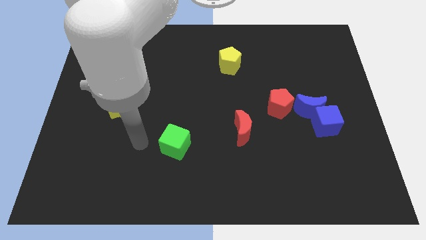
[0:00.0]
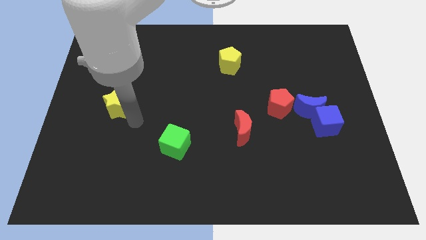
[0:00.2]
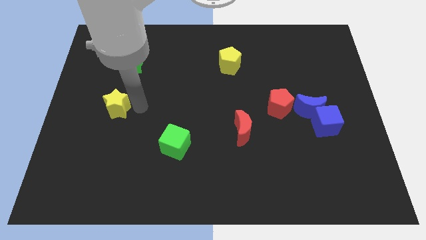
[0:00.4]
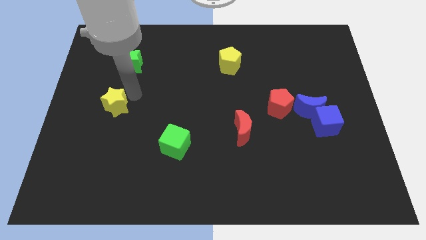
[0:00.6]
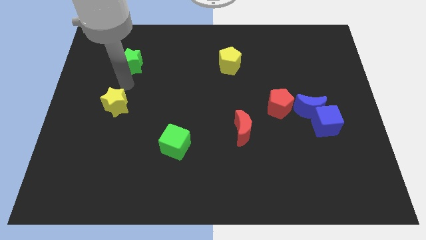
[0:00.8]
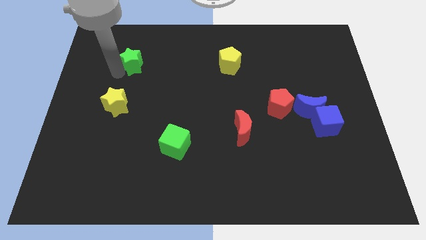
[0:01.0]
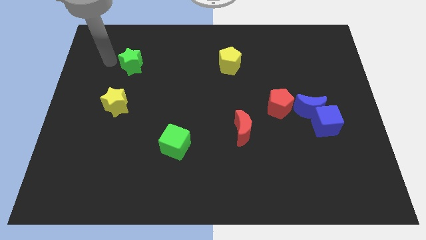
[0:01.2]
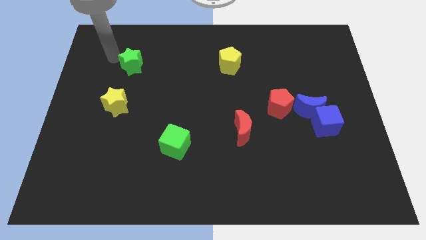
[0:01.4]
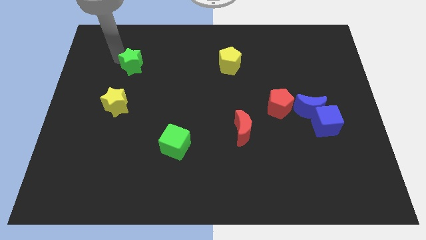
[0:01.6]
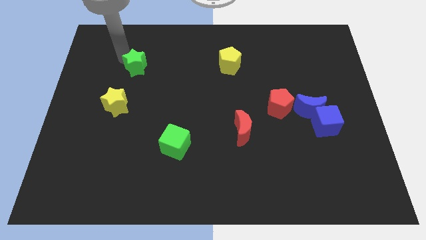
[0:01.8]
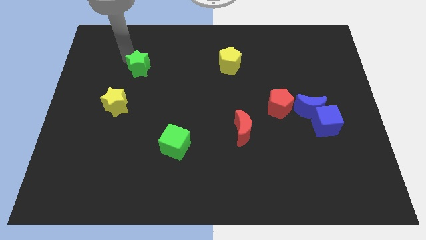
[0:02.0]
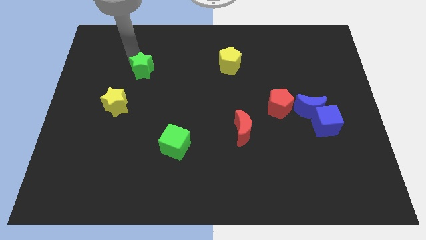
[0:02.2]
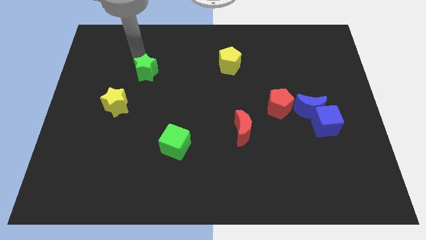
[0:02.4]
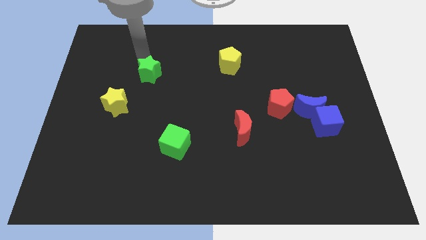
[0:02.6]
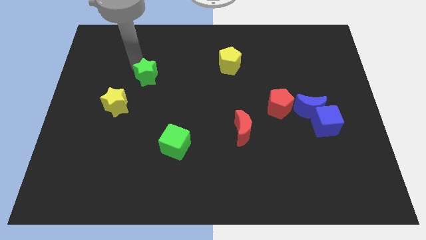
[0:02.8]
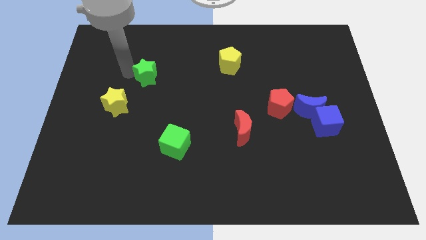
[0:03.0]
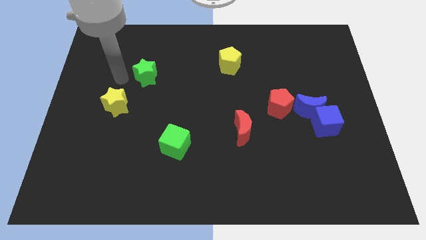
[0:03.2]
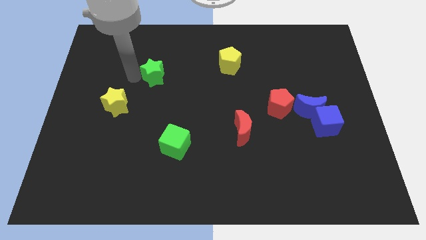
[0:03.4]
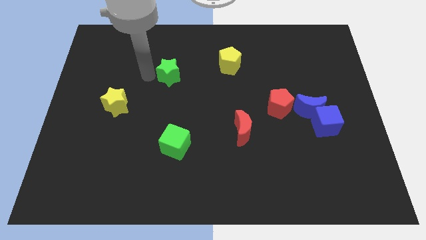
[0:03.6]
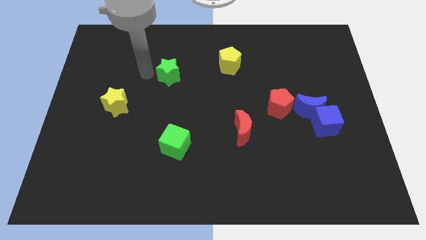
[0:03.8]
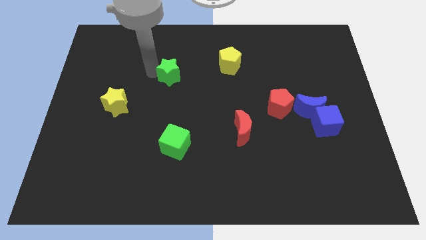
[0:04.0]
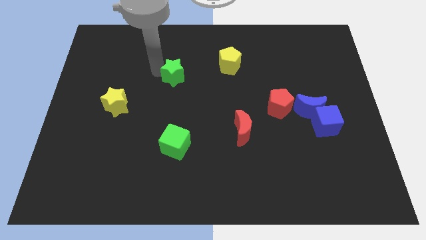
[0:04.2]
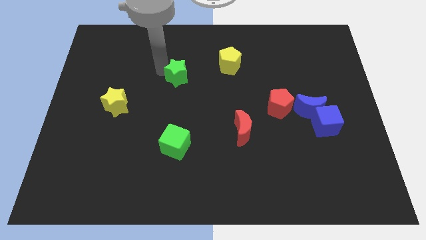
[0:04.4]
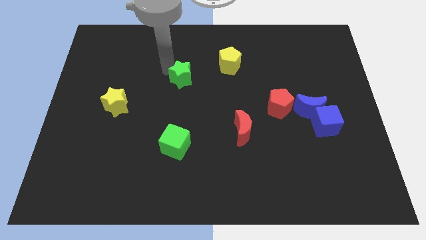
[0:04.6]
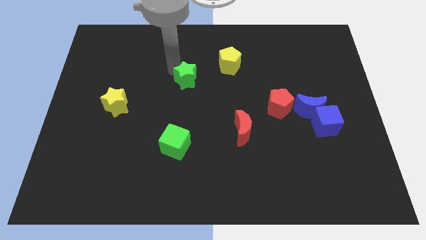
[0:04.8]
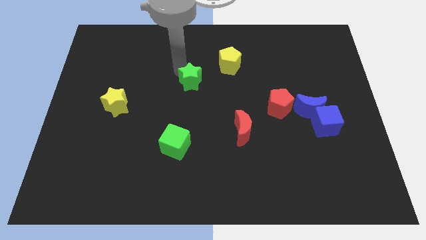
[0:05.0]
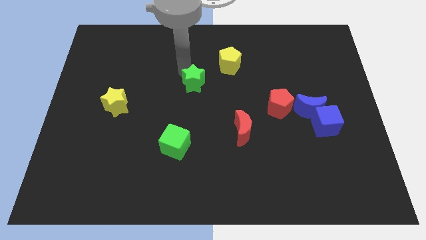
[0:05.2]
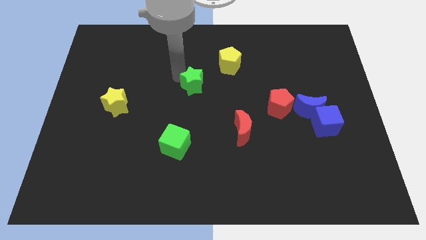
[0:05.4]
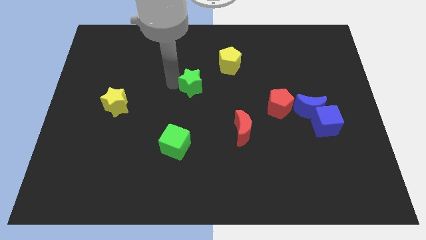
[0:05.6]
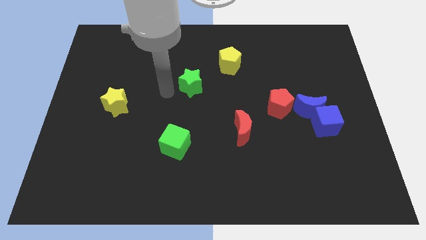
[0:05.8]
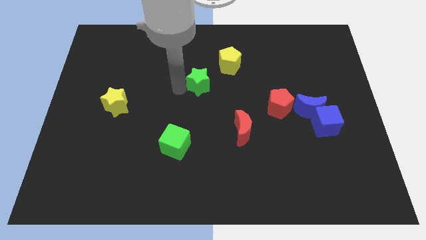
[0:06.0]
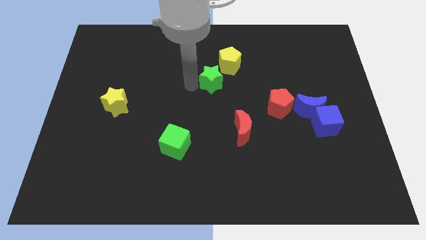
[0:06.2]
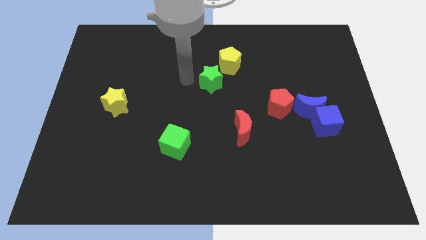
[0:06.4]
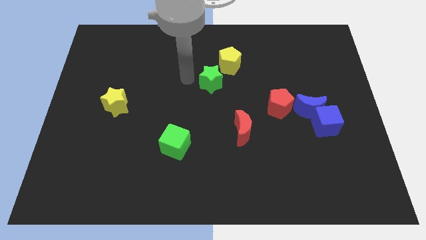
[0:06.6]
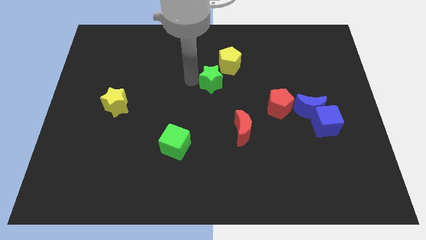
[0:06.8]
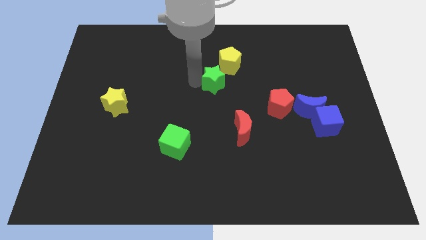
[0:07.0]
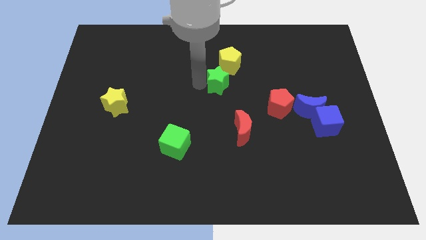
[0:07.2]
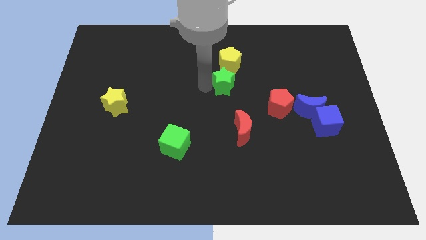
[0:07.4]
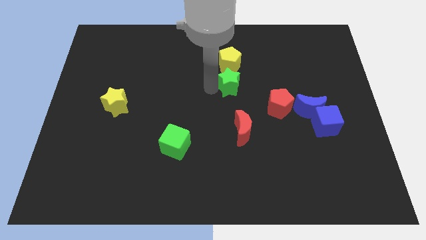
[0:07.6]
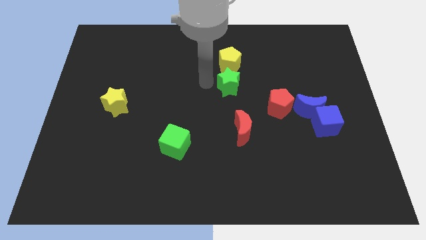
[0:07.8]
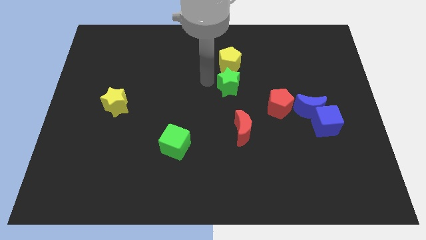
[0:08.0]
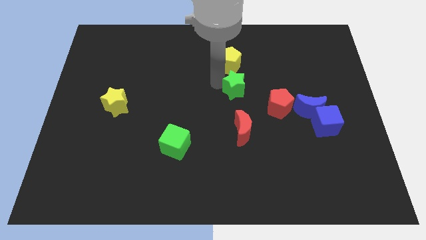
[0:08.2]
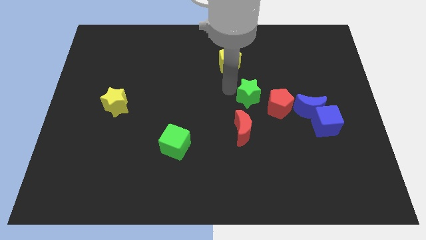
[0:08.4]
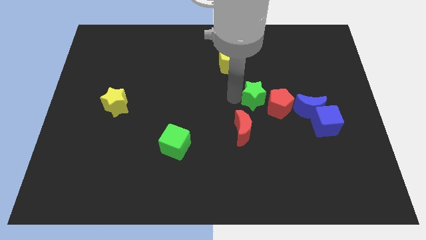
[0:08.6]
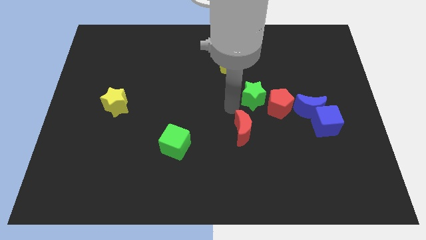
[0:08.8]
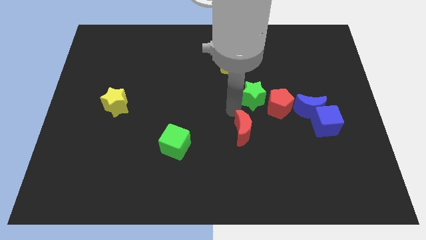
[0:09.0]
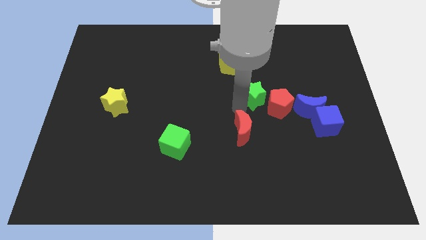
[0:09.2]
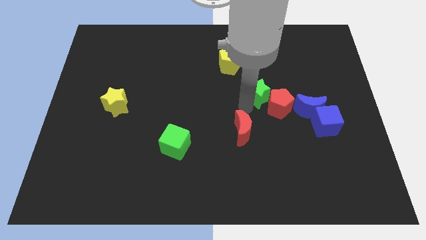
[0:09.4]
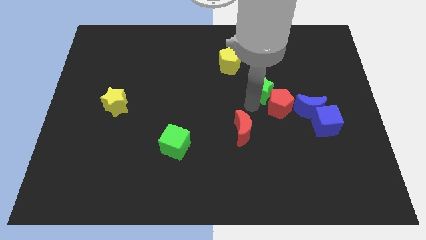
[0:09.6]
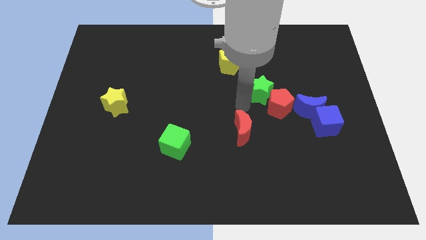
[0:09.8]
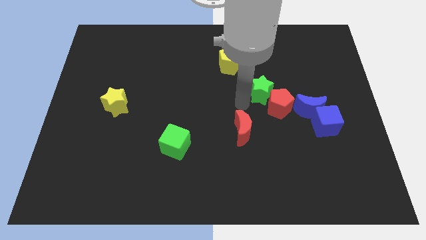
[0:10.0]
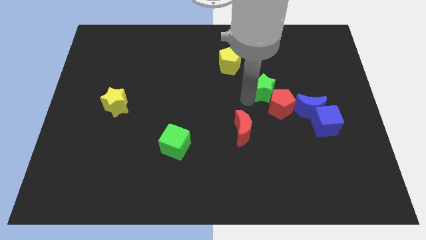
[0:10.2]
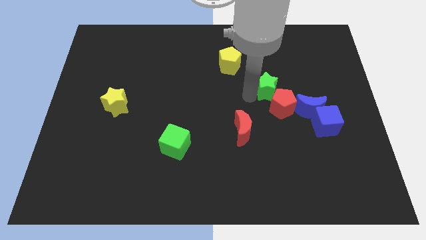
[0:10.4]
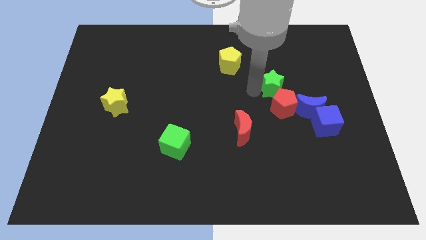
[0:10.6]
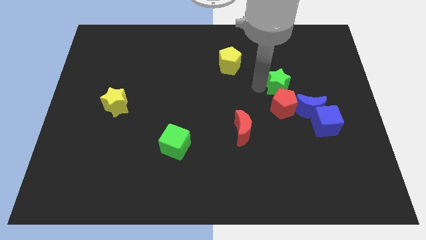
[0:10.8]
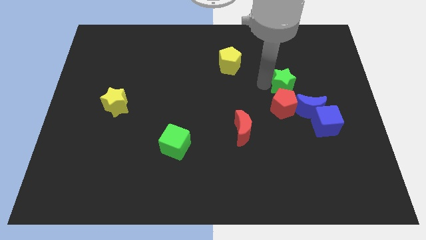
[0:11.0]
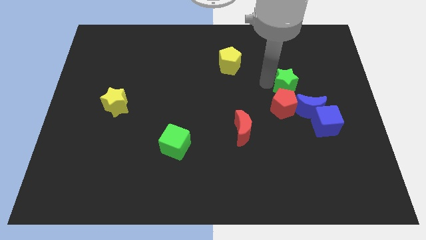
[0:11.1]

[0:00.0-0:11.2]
push the green star above the blue moon

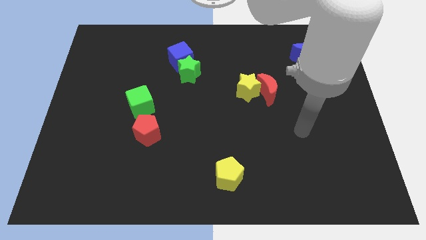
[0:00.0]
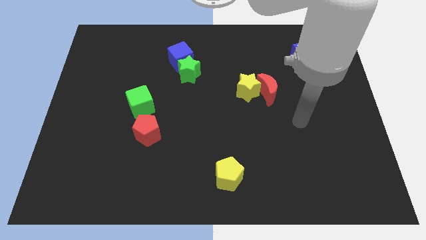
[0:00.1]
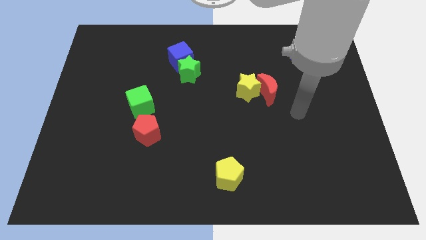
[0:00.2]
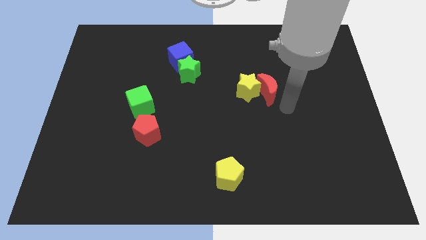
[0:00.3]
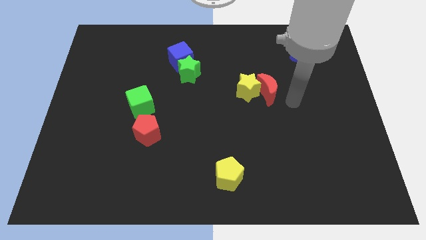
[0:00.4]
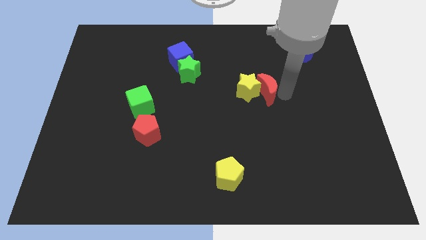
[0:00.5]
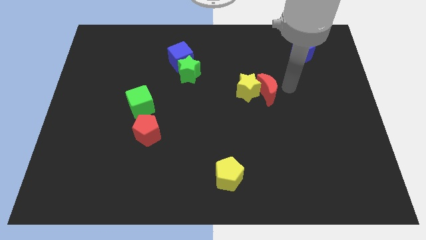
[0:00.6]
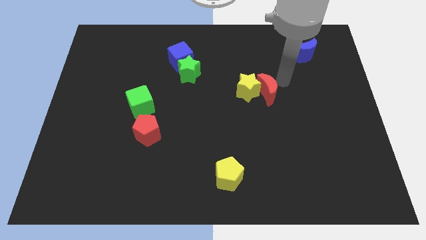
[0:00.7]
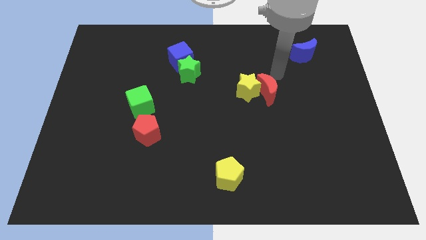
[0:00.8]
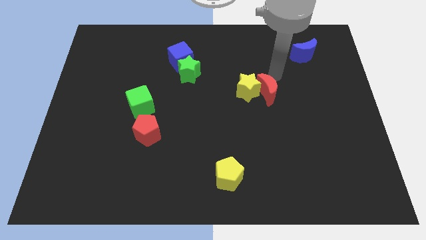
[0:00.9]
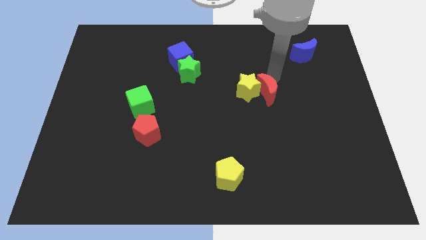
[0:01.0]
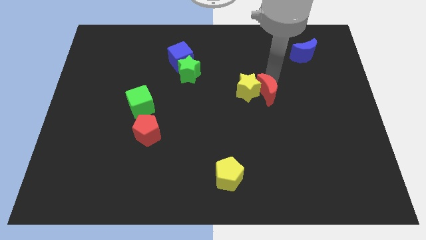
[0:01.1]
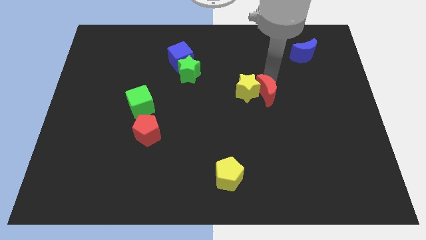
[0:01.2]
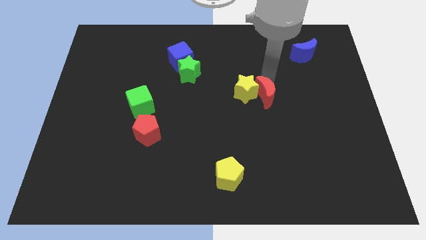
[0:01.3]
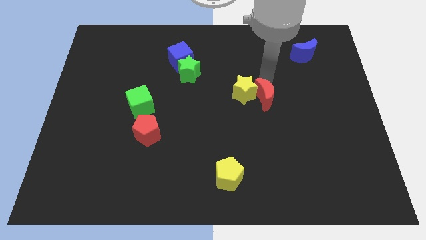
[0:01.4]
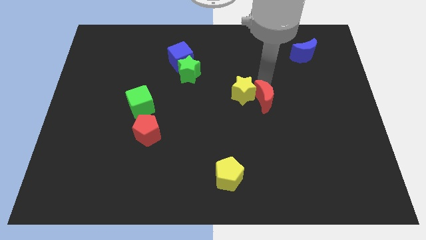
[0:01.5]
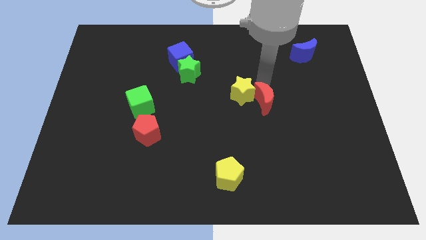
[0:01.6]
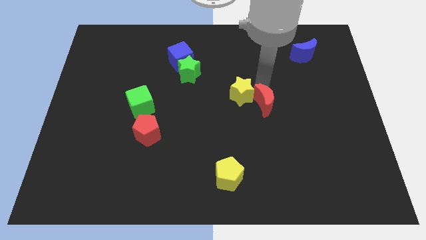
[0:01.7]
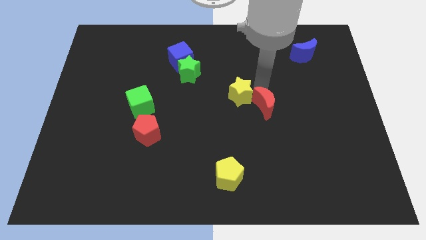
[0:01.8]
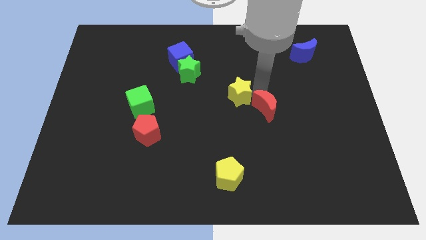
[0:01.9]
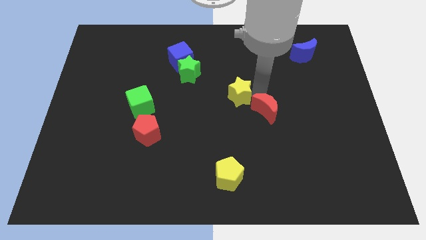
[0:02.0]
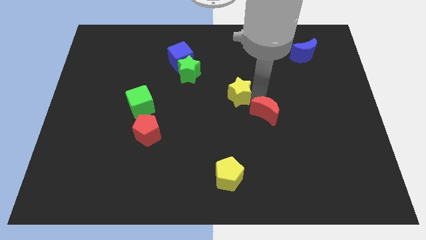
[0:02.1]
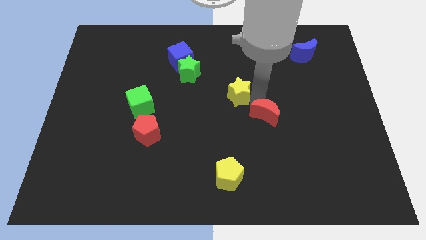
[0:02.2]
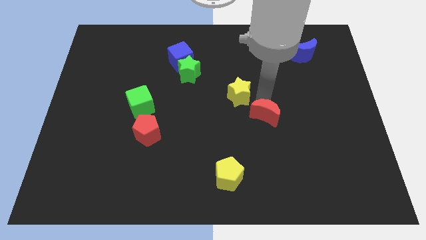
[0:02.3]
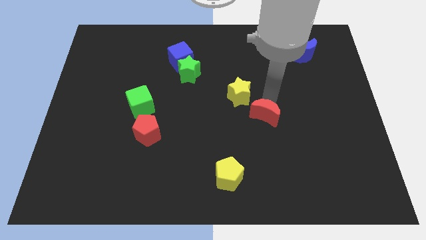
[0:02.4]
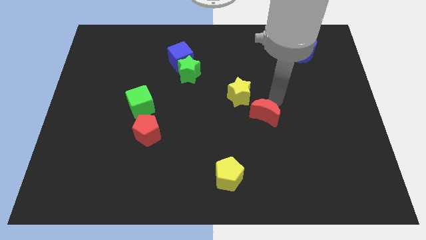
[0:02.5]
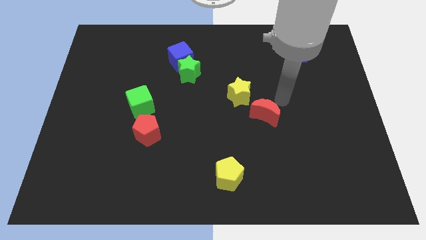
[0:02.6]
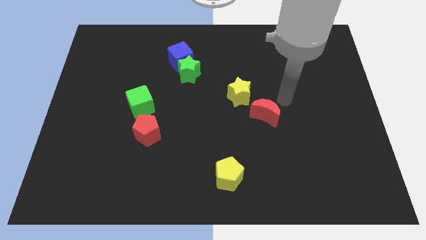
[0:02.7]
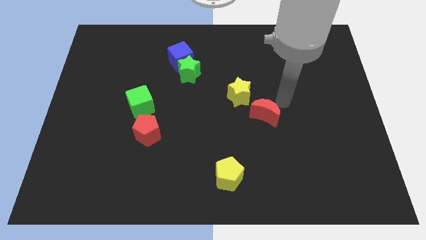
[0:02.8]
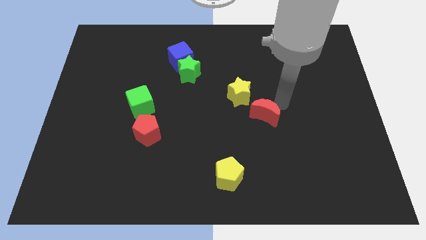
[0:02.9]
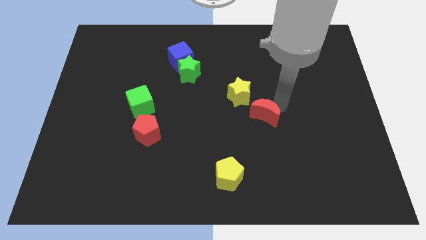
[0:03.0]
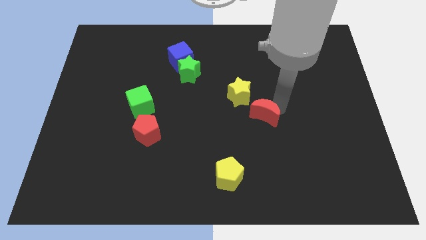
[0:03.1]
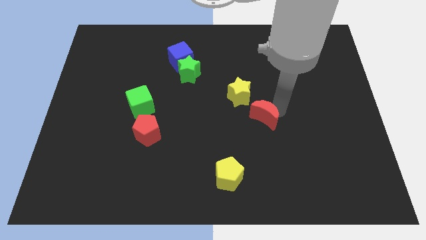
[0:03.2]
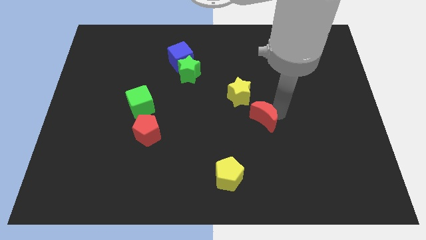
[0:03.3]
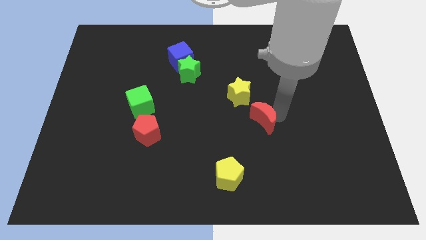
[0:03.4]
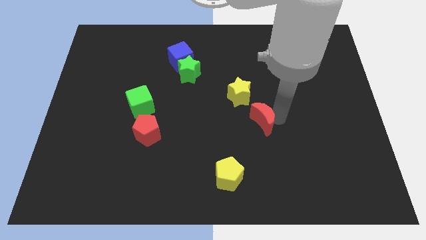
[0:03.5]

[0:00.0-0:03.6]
put the red moon to the bottom of the yellow star
